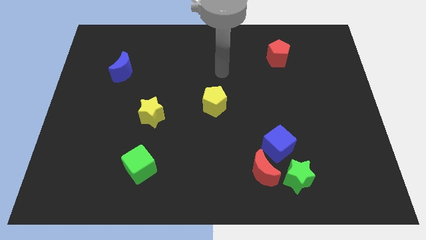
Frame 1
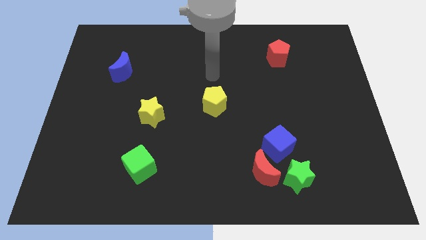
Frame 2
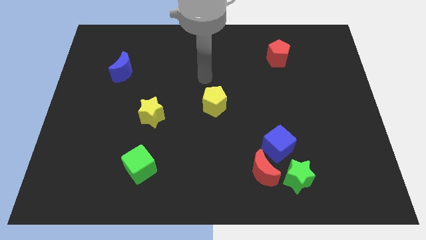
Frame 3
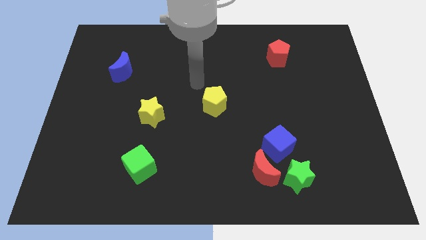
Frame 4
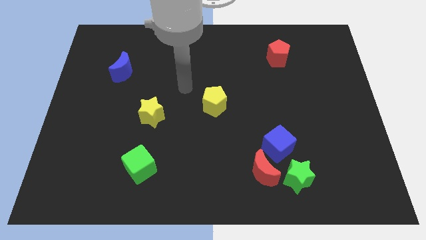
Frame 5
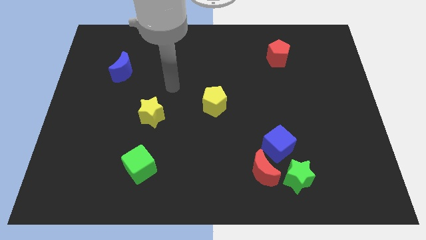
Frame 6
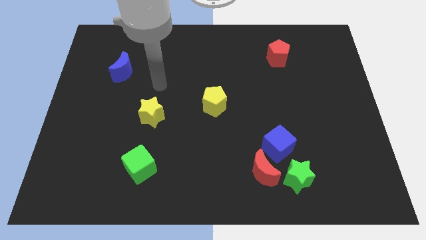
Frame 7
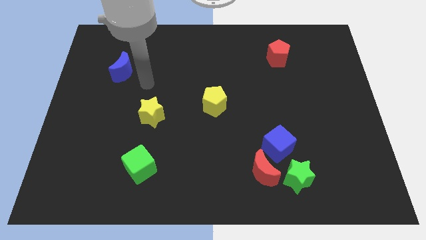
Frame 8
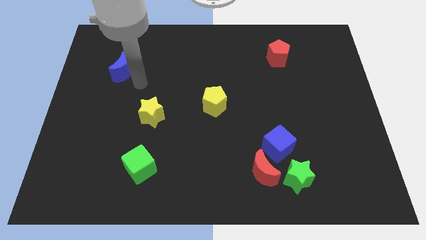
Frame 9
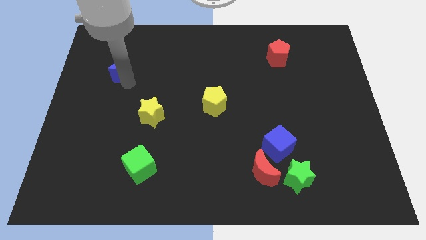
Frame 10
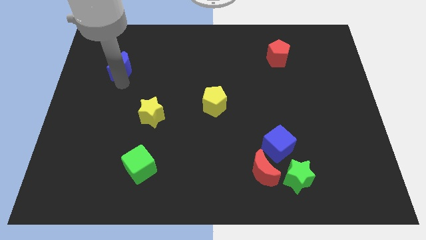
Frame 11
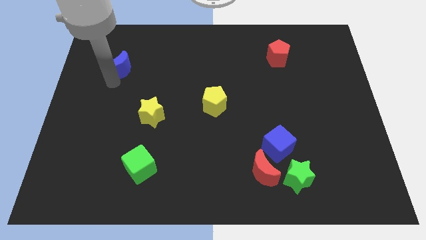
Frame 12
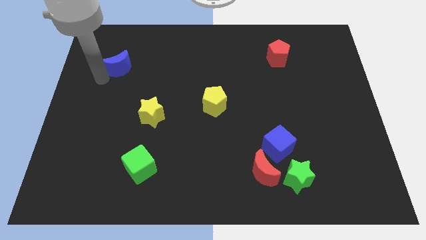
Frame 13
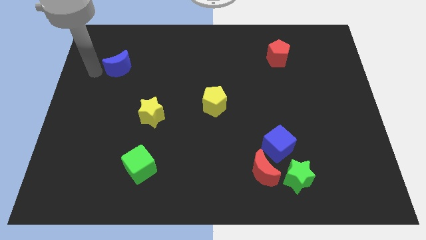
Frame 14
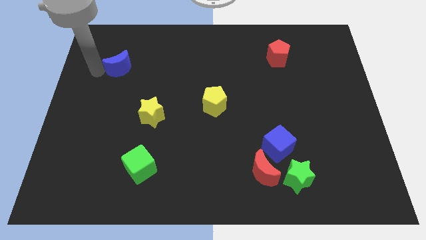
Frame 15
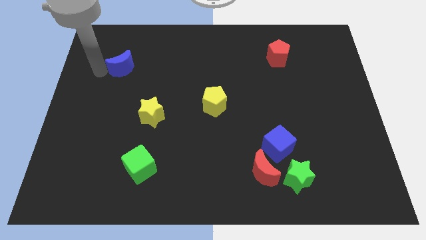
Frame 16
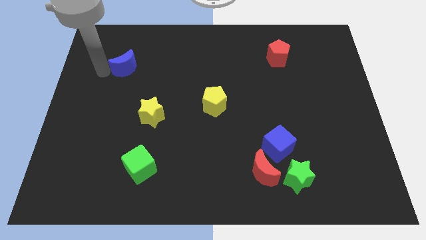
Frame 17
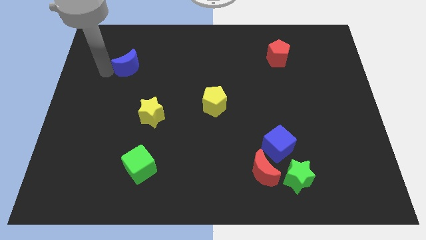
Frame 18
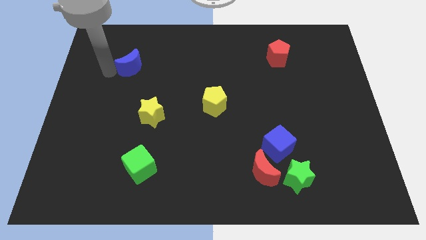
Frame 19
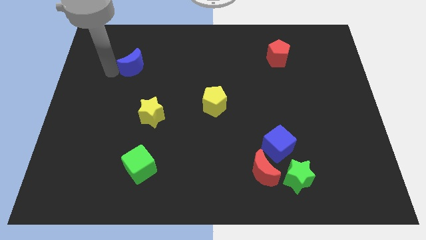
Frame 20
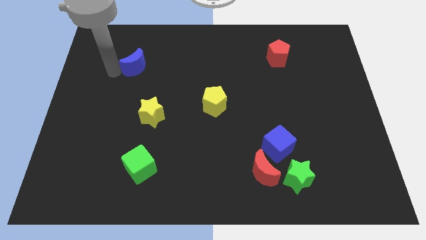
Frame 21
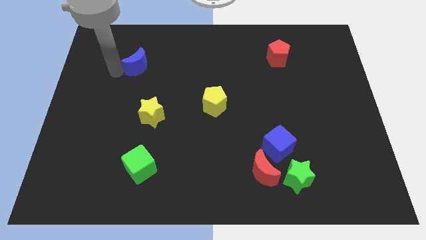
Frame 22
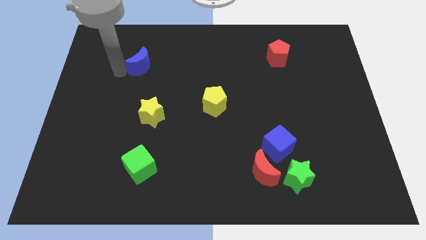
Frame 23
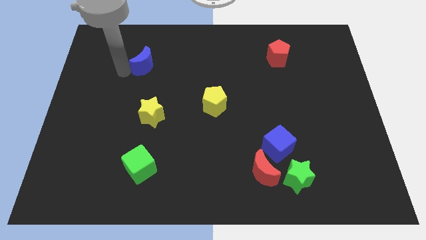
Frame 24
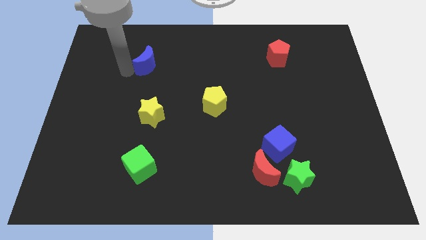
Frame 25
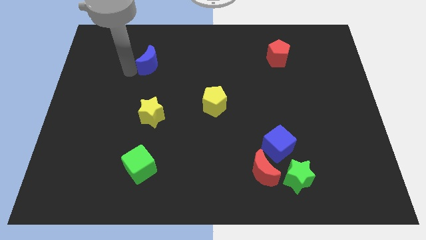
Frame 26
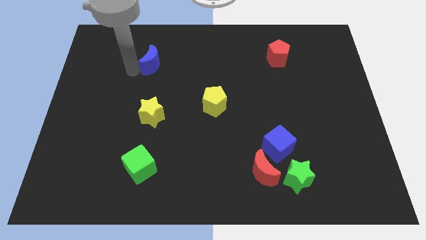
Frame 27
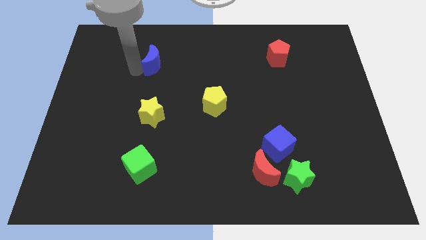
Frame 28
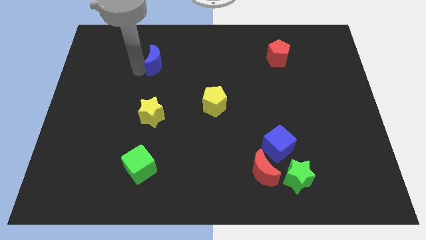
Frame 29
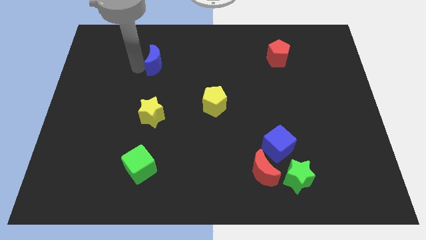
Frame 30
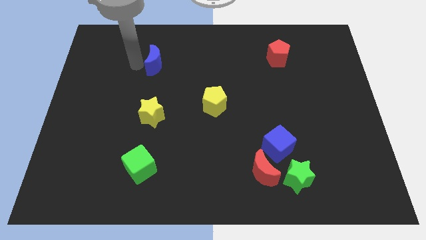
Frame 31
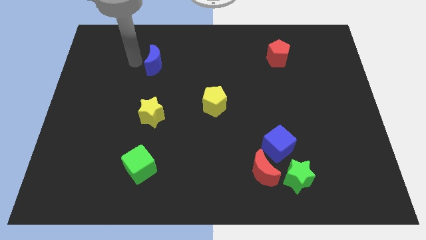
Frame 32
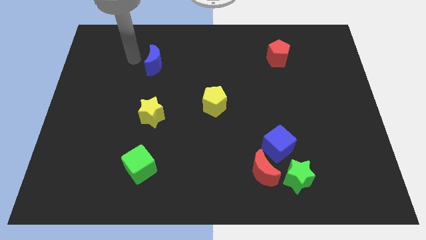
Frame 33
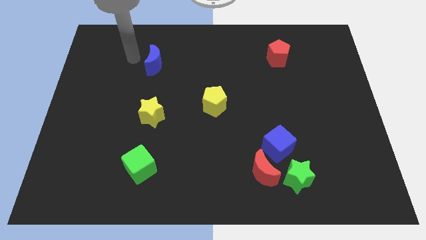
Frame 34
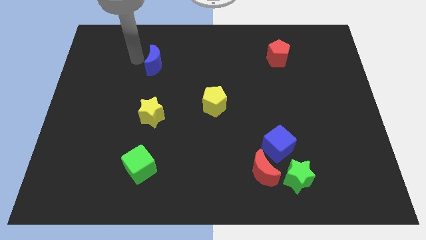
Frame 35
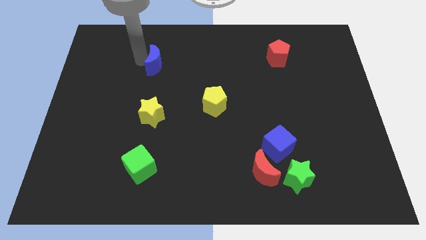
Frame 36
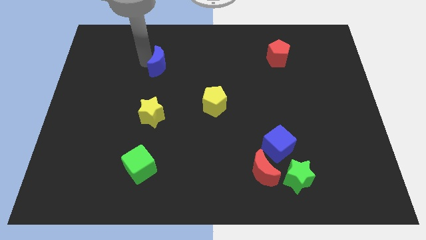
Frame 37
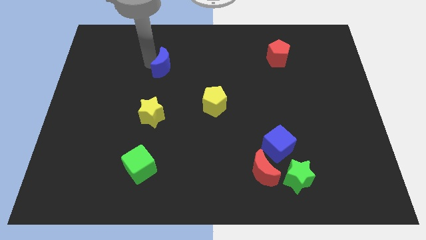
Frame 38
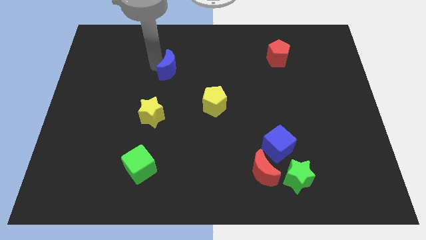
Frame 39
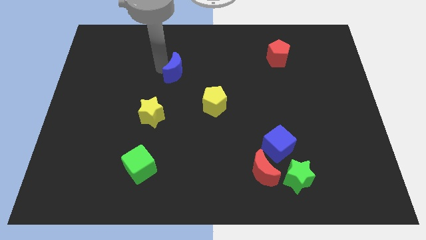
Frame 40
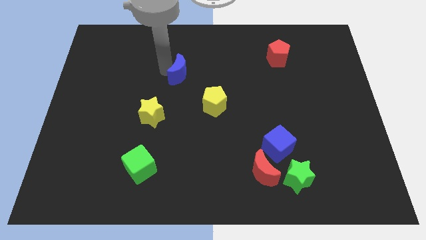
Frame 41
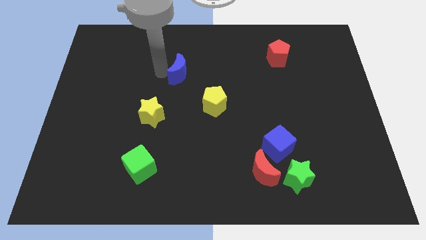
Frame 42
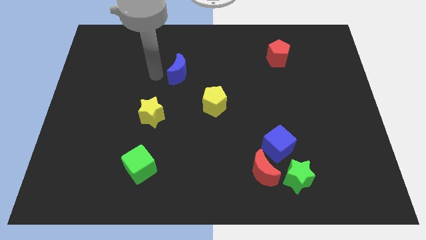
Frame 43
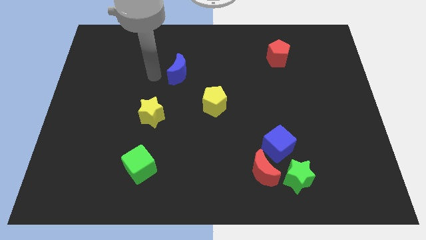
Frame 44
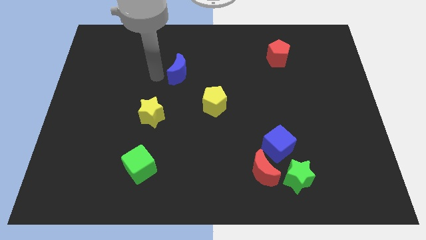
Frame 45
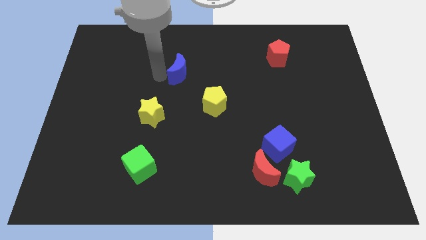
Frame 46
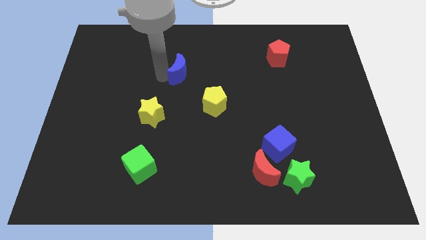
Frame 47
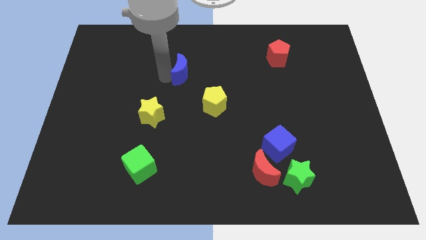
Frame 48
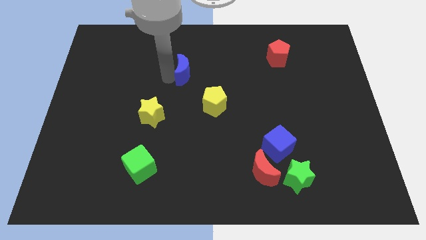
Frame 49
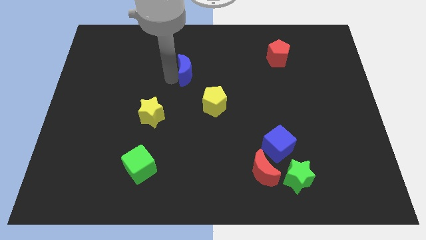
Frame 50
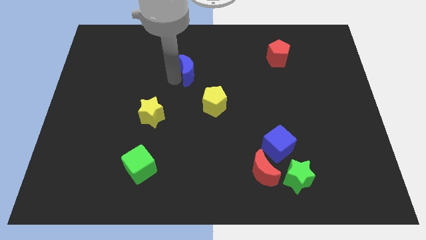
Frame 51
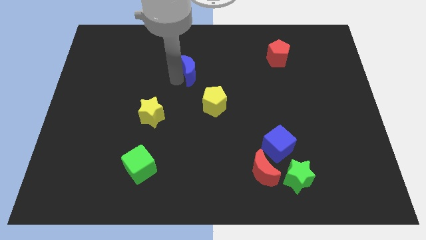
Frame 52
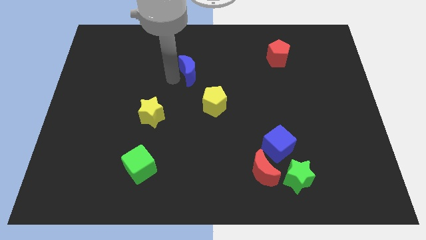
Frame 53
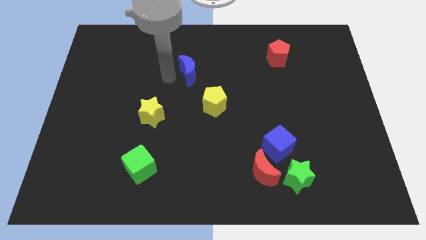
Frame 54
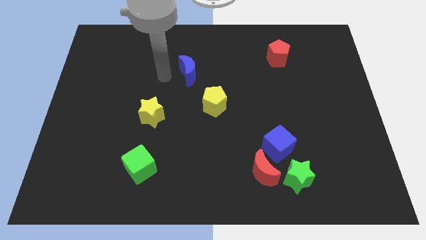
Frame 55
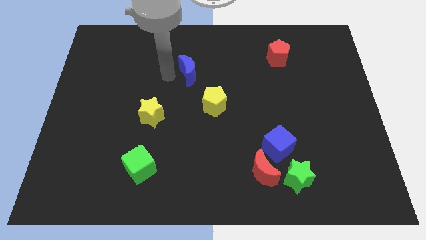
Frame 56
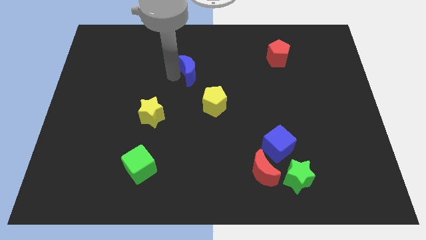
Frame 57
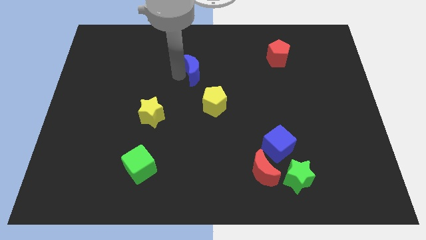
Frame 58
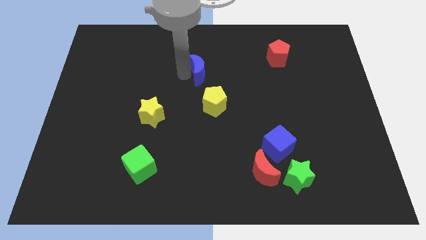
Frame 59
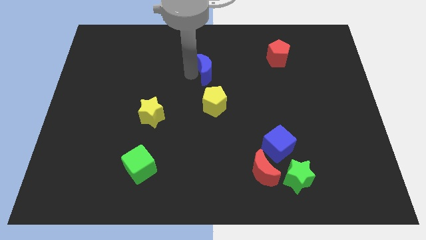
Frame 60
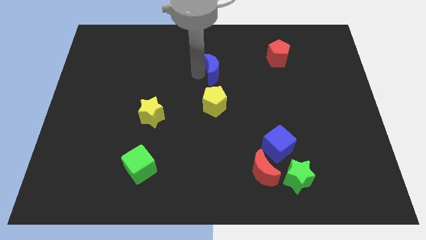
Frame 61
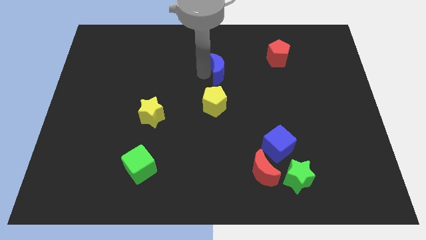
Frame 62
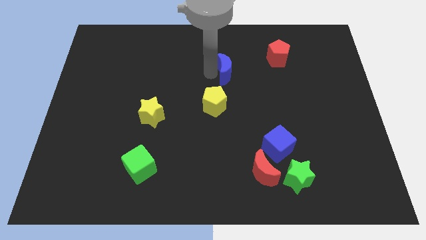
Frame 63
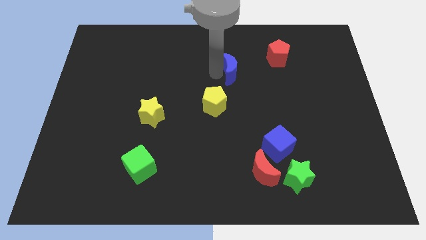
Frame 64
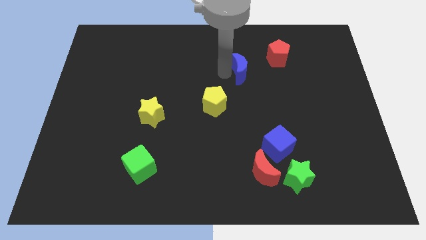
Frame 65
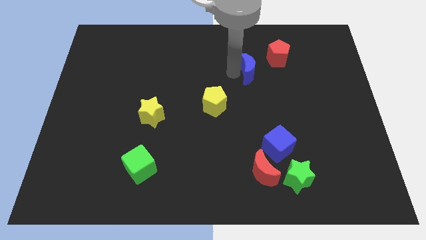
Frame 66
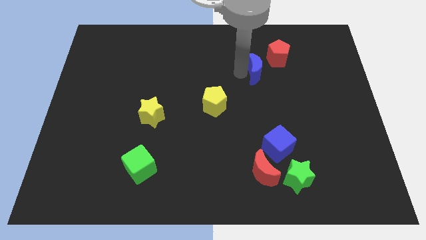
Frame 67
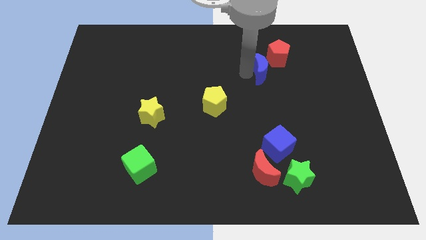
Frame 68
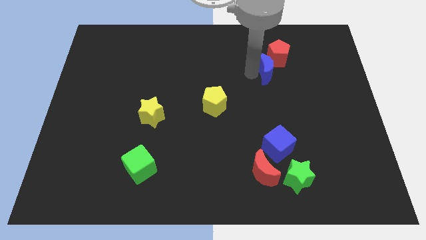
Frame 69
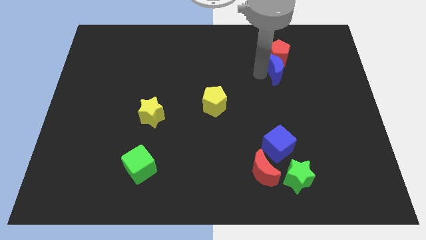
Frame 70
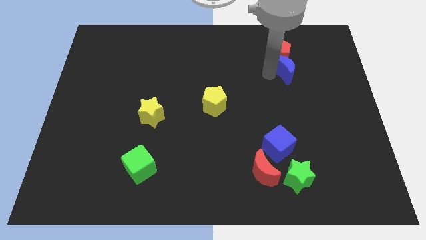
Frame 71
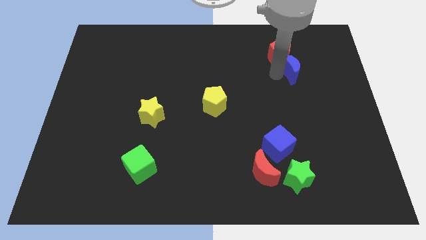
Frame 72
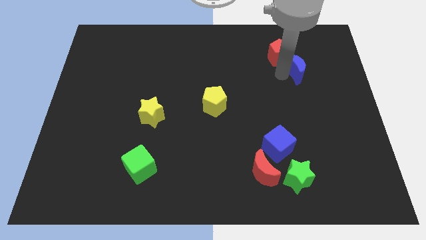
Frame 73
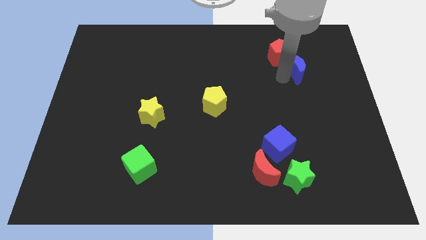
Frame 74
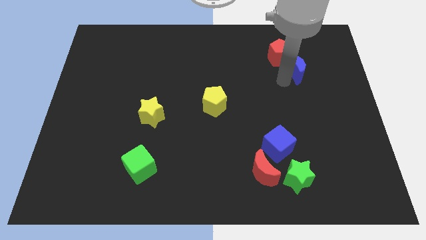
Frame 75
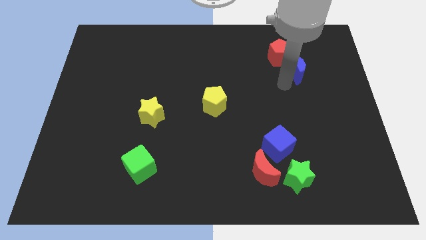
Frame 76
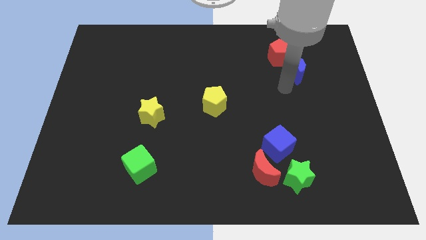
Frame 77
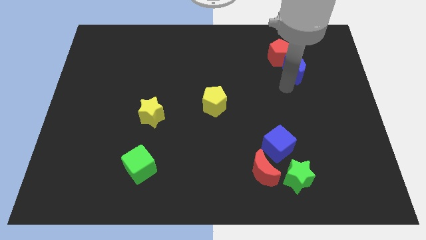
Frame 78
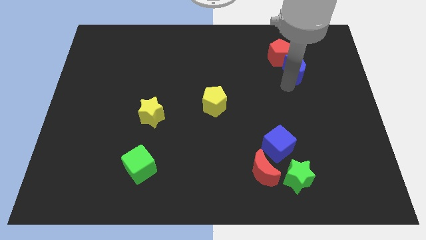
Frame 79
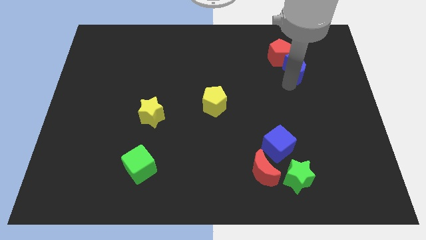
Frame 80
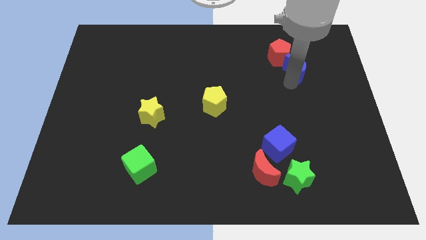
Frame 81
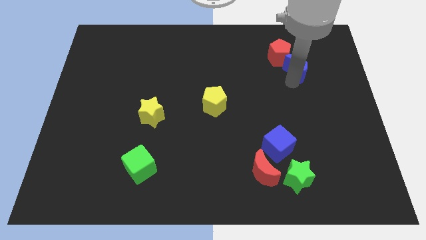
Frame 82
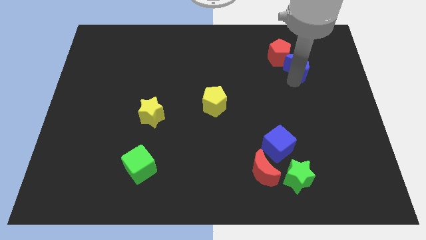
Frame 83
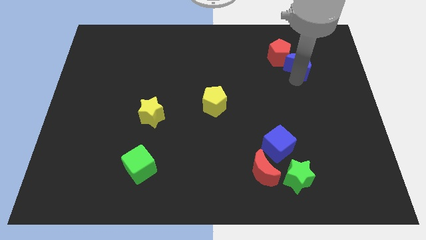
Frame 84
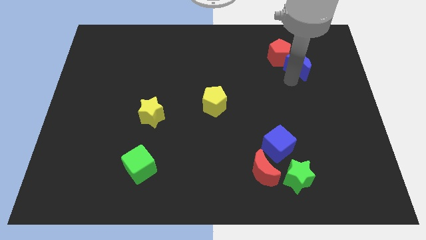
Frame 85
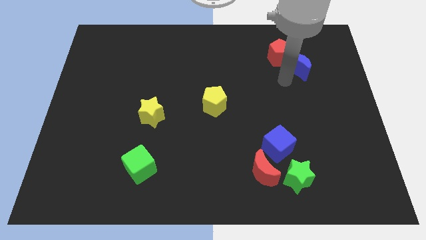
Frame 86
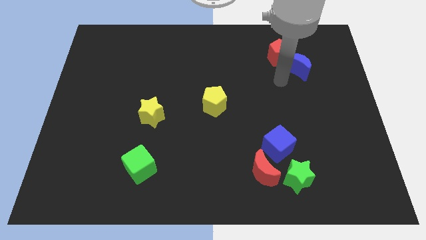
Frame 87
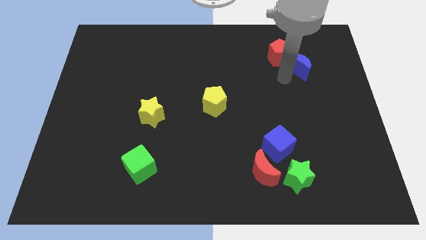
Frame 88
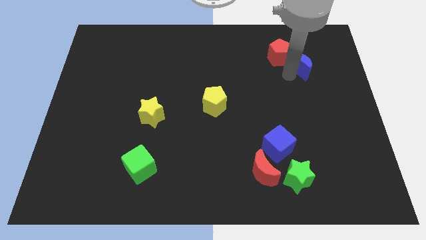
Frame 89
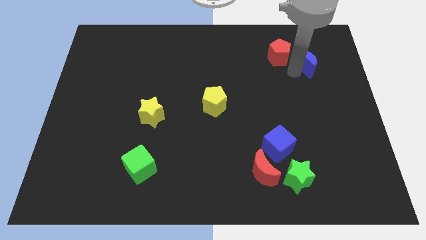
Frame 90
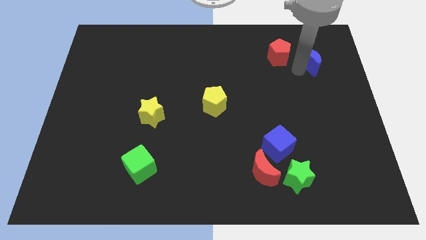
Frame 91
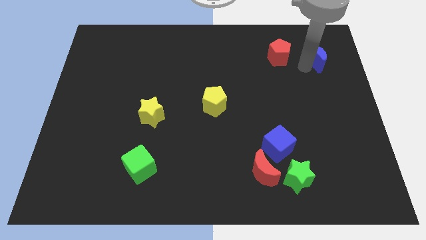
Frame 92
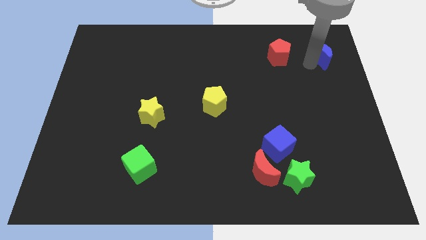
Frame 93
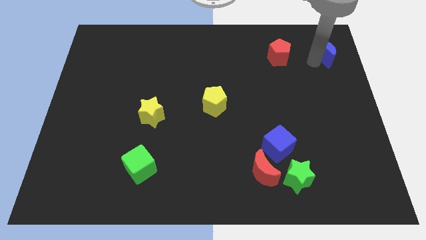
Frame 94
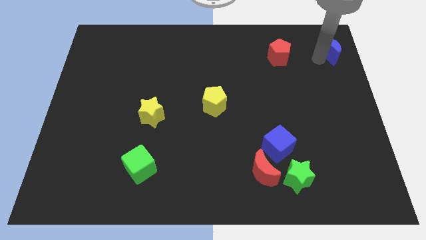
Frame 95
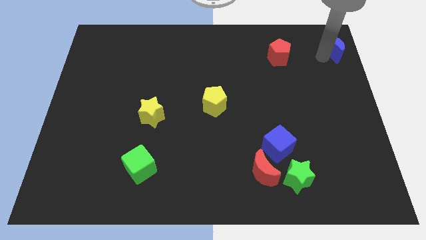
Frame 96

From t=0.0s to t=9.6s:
put the blue moon to the upper right corner
